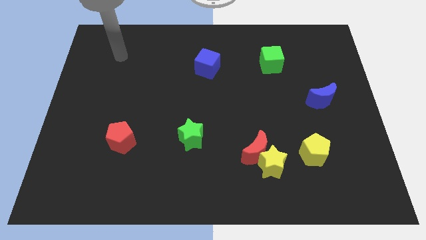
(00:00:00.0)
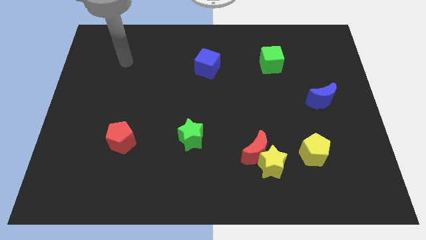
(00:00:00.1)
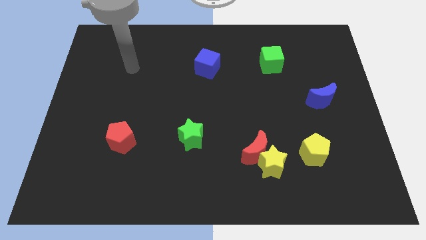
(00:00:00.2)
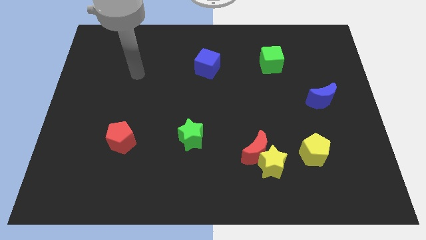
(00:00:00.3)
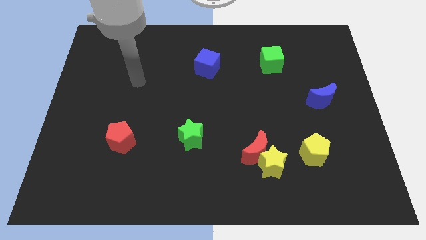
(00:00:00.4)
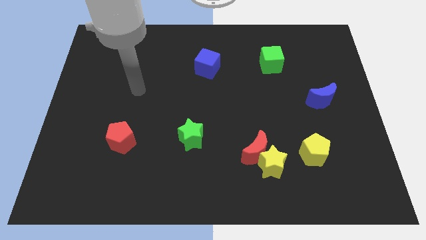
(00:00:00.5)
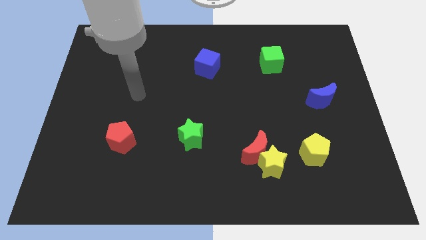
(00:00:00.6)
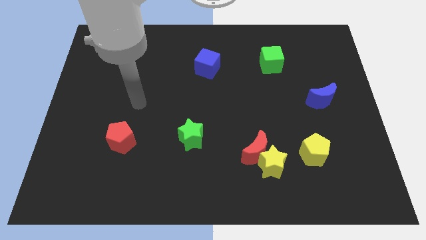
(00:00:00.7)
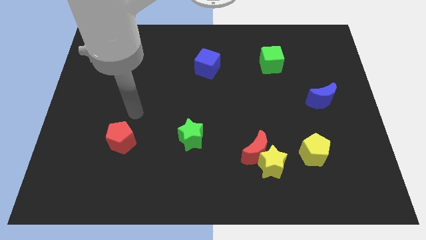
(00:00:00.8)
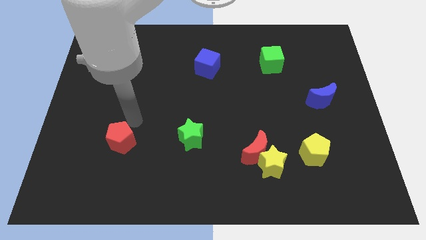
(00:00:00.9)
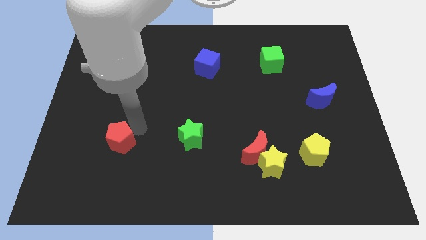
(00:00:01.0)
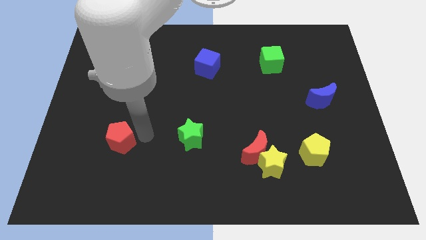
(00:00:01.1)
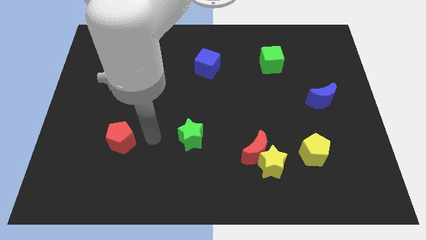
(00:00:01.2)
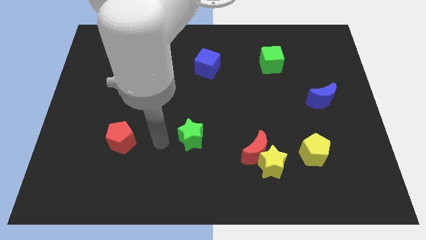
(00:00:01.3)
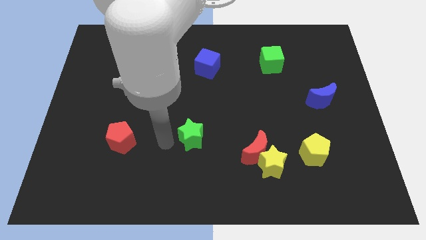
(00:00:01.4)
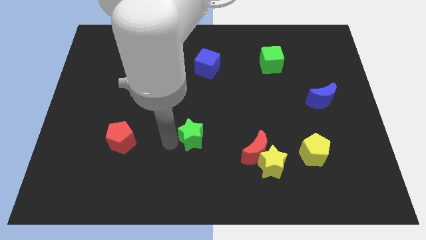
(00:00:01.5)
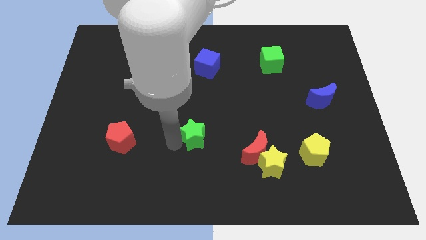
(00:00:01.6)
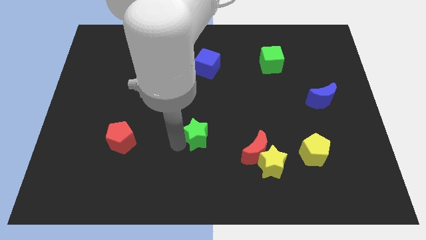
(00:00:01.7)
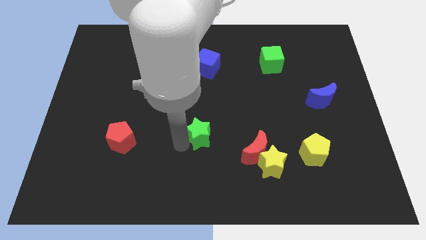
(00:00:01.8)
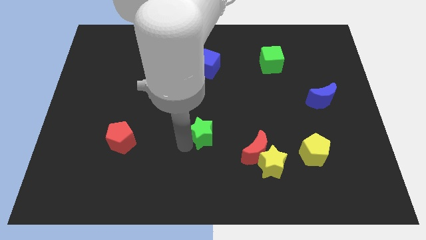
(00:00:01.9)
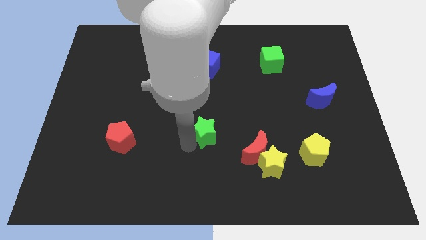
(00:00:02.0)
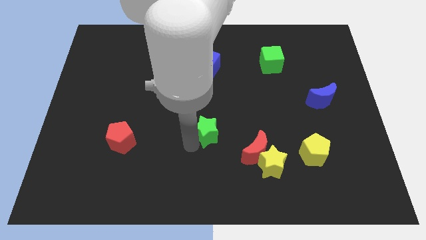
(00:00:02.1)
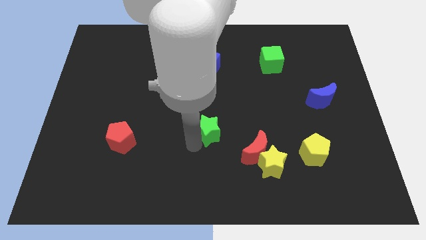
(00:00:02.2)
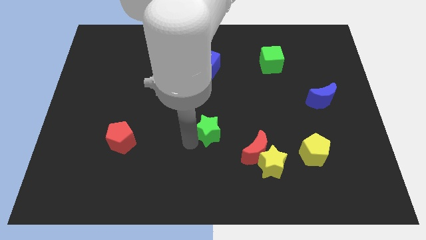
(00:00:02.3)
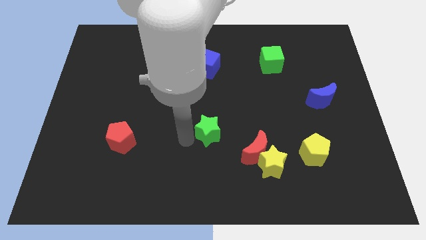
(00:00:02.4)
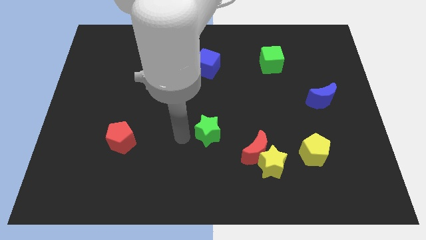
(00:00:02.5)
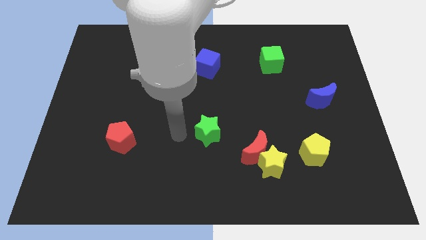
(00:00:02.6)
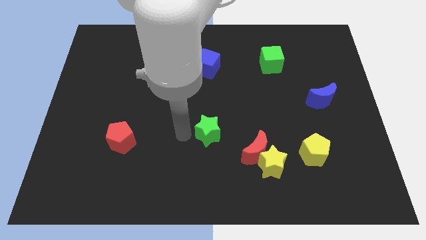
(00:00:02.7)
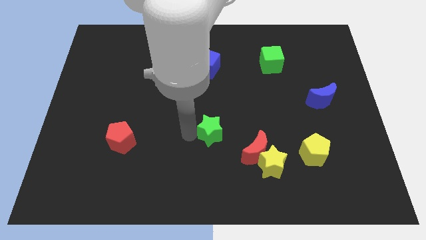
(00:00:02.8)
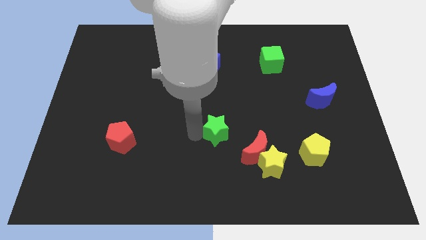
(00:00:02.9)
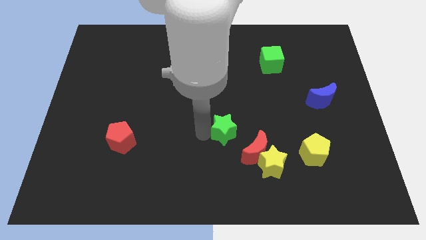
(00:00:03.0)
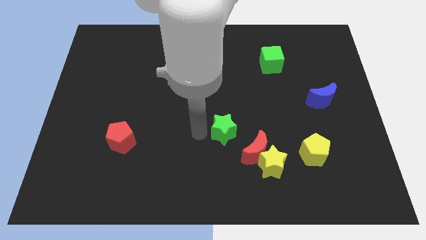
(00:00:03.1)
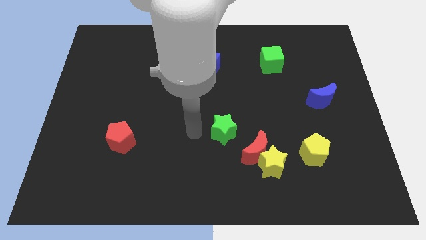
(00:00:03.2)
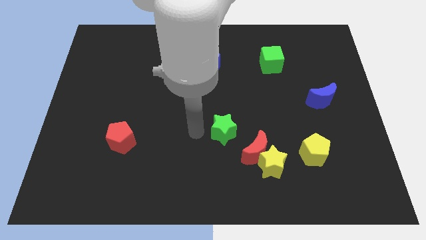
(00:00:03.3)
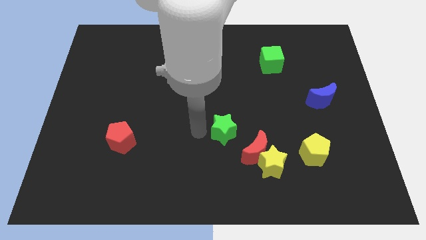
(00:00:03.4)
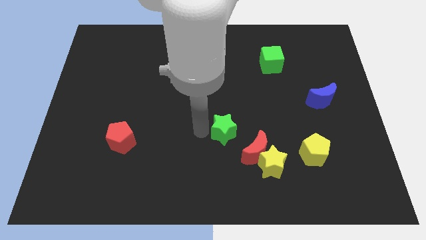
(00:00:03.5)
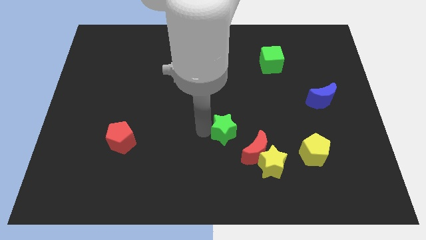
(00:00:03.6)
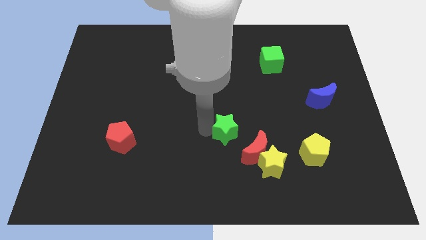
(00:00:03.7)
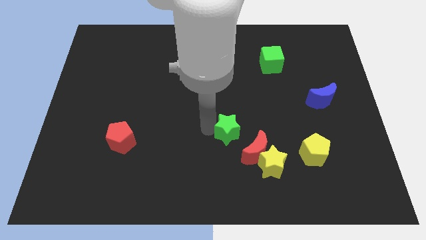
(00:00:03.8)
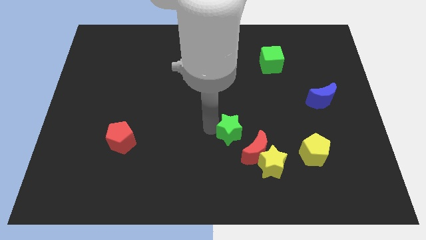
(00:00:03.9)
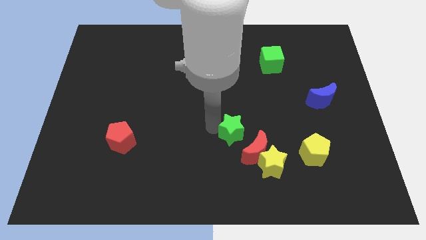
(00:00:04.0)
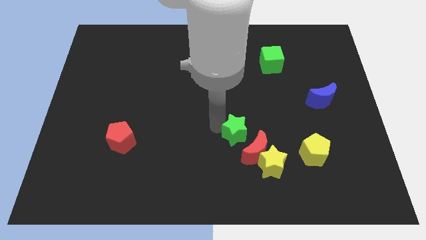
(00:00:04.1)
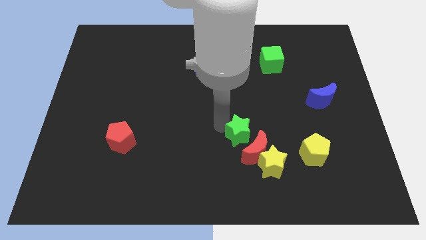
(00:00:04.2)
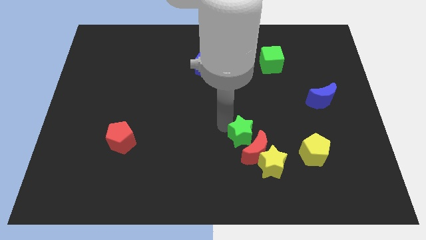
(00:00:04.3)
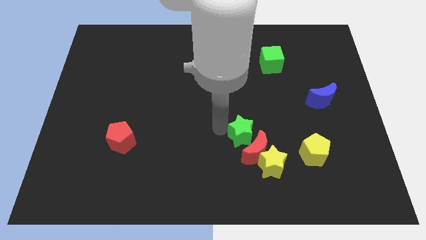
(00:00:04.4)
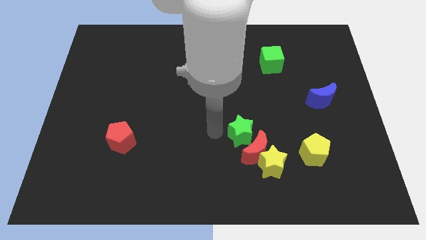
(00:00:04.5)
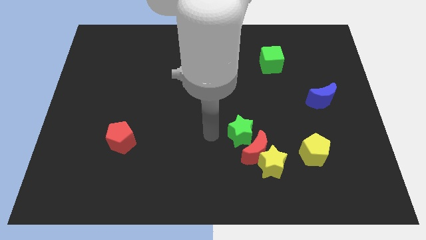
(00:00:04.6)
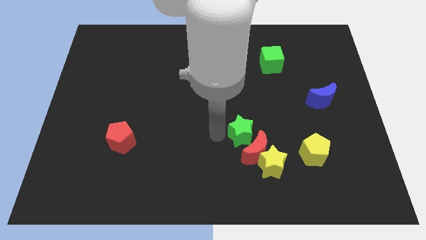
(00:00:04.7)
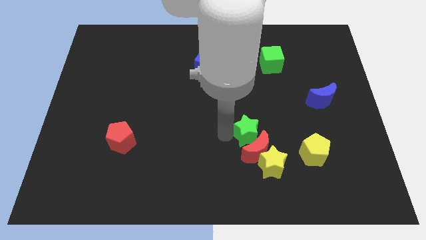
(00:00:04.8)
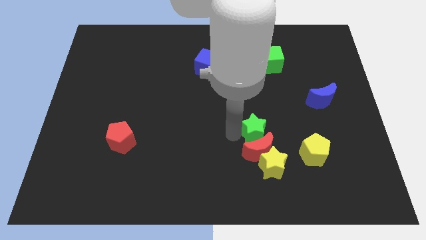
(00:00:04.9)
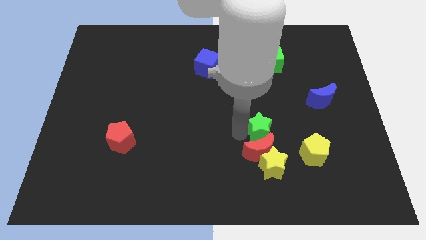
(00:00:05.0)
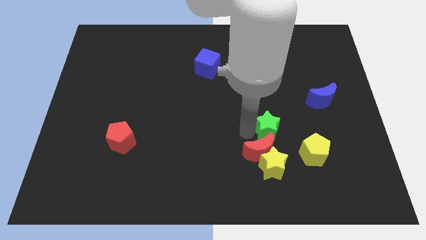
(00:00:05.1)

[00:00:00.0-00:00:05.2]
slide the green star diagonally up and to the left of the yellow pentagon

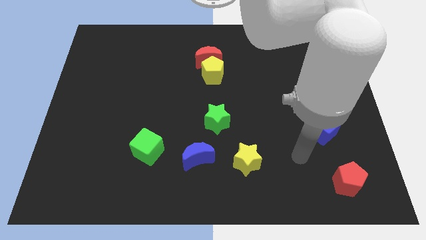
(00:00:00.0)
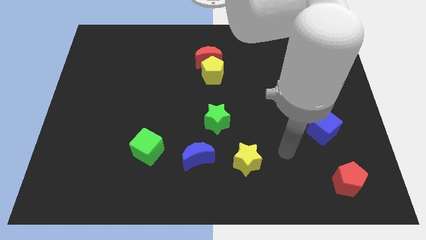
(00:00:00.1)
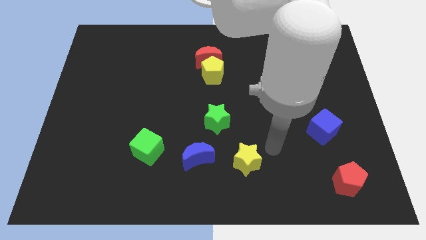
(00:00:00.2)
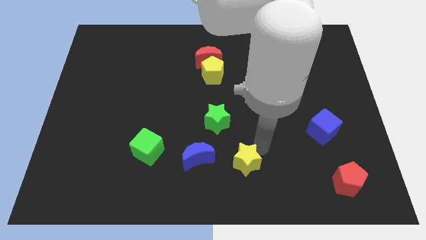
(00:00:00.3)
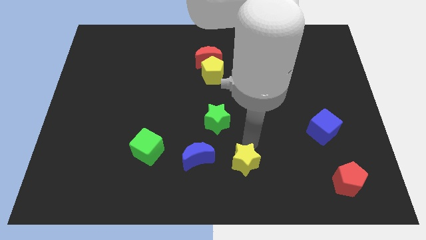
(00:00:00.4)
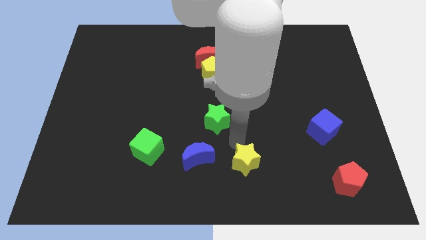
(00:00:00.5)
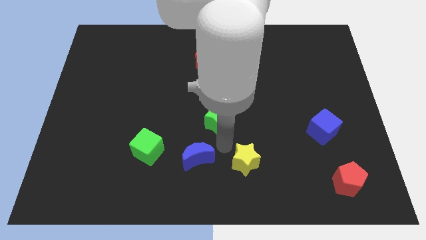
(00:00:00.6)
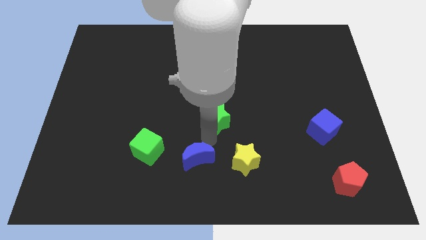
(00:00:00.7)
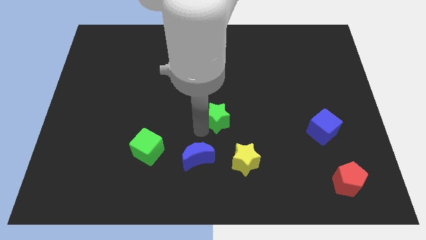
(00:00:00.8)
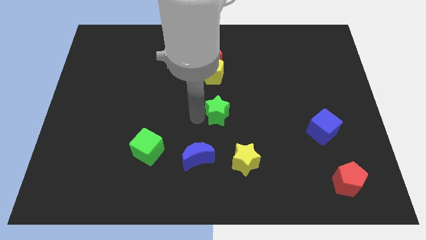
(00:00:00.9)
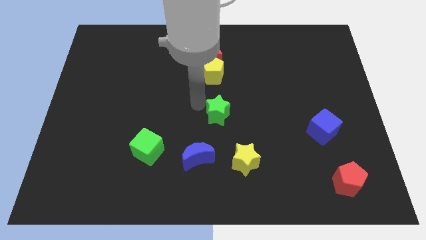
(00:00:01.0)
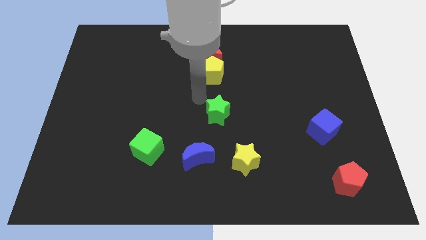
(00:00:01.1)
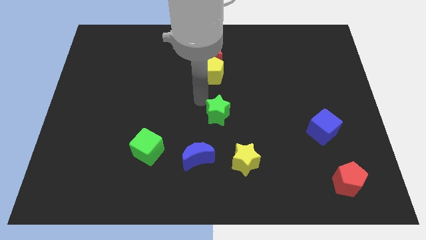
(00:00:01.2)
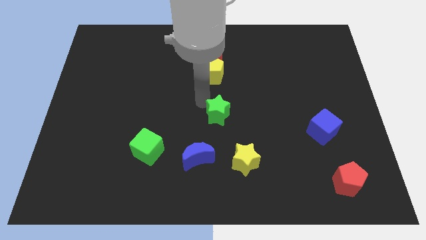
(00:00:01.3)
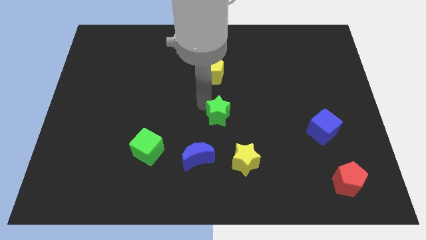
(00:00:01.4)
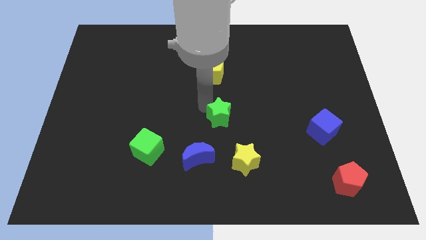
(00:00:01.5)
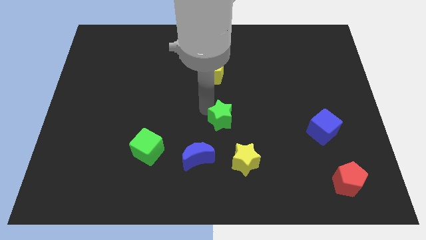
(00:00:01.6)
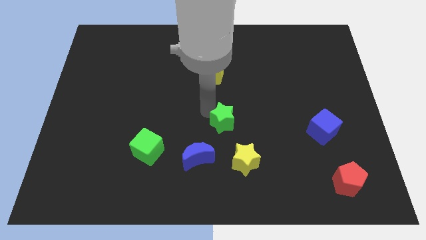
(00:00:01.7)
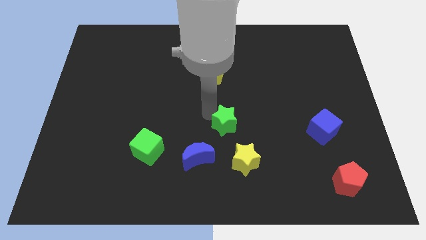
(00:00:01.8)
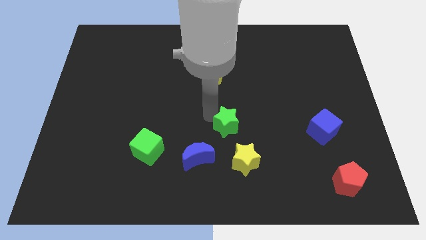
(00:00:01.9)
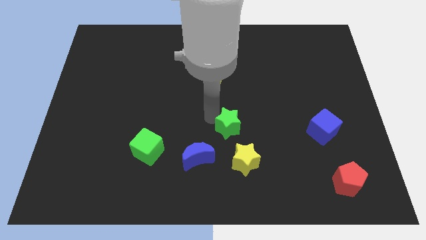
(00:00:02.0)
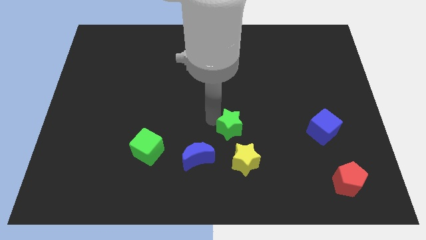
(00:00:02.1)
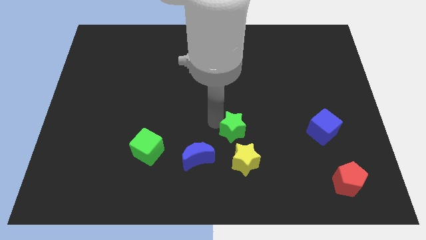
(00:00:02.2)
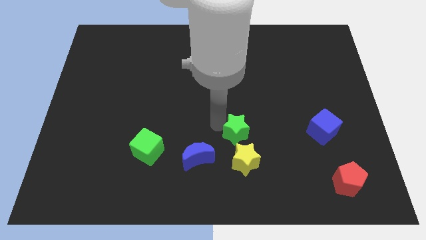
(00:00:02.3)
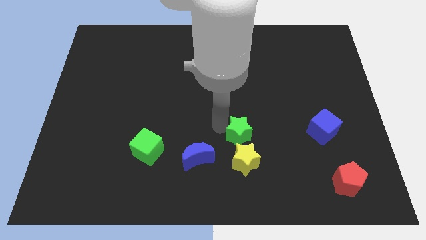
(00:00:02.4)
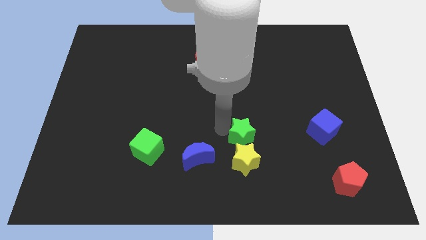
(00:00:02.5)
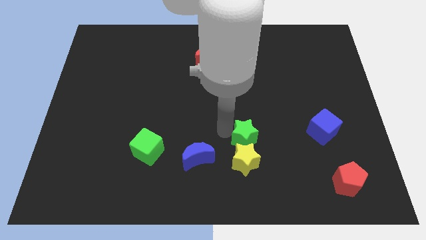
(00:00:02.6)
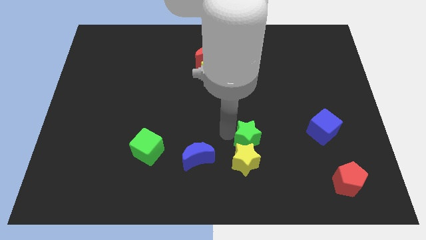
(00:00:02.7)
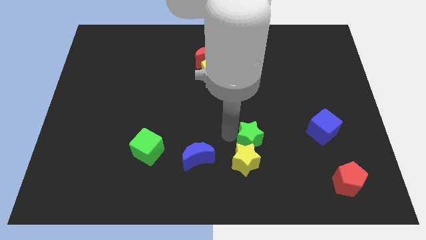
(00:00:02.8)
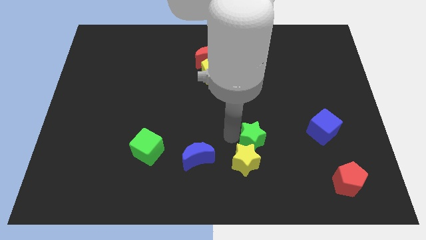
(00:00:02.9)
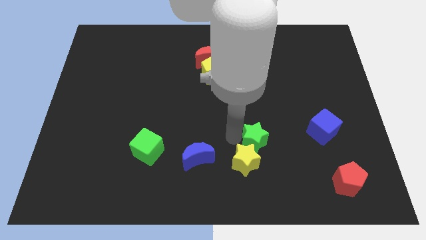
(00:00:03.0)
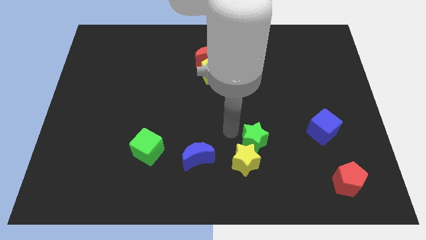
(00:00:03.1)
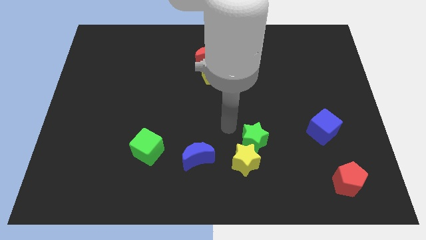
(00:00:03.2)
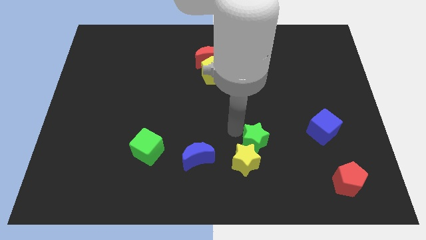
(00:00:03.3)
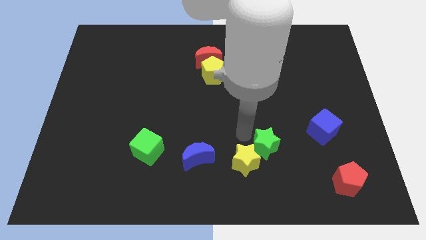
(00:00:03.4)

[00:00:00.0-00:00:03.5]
push the green star just right of the yellow star
